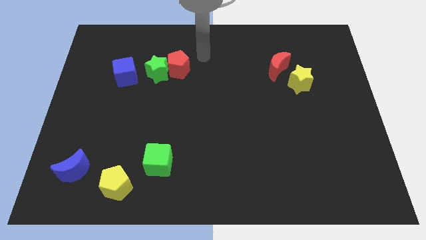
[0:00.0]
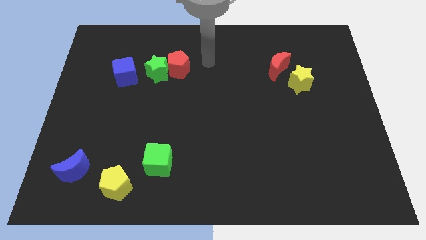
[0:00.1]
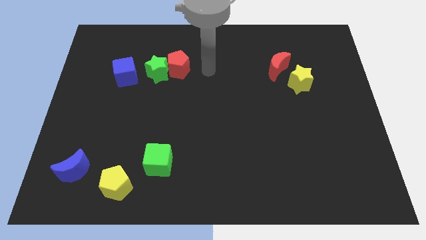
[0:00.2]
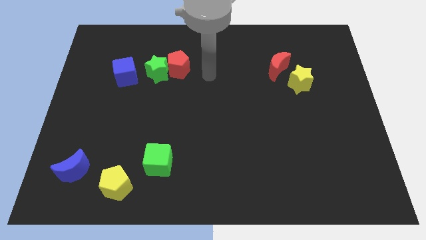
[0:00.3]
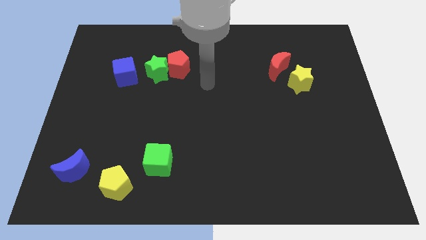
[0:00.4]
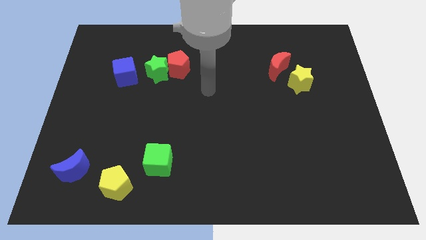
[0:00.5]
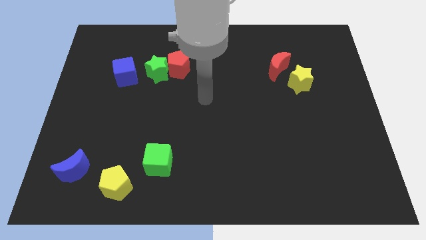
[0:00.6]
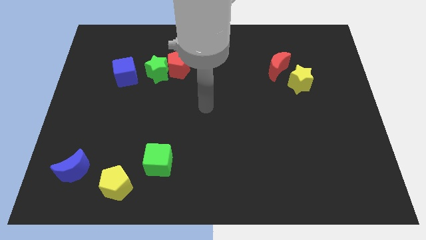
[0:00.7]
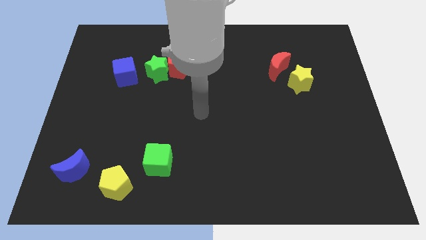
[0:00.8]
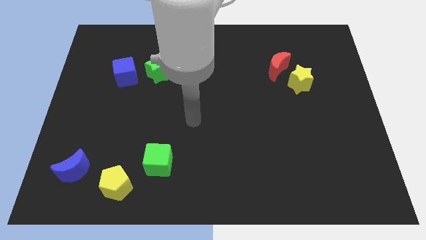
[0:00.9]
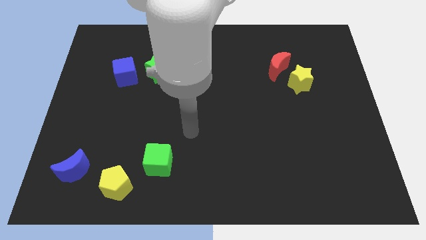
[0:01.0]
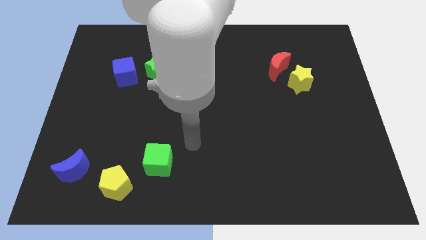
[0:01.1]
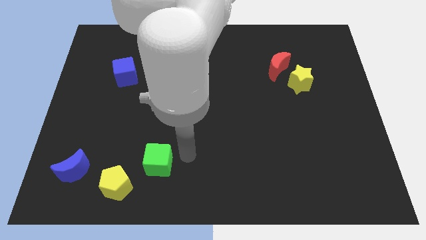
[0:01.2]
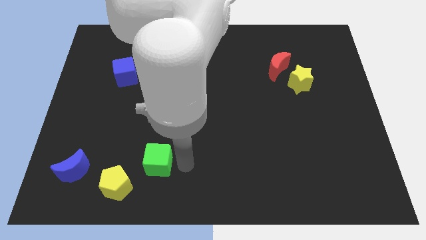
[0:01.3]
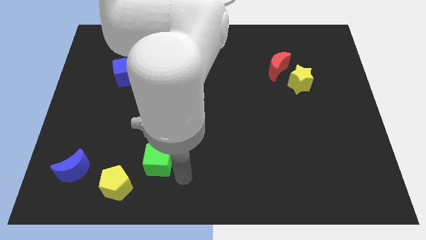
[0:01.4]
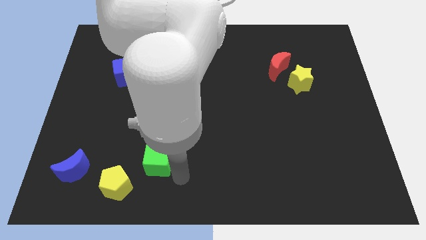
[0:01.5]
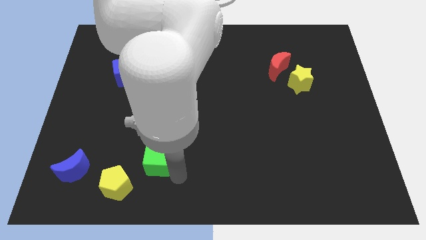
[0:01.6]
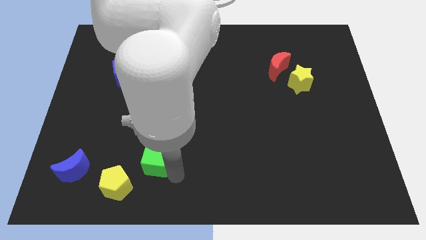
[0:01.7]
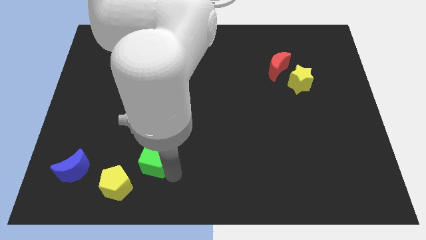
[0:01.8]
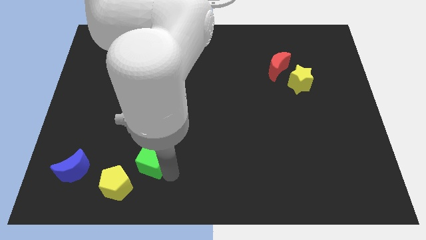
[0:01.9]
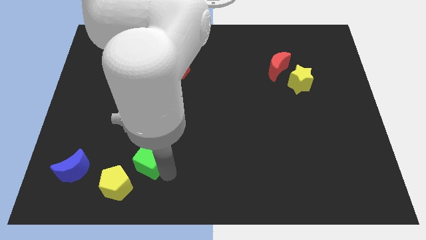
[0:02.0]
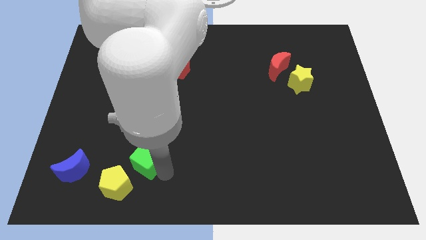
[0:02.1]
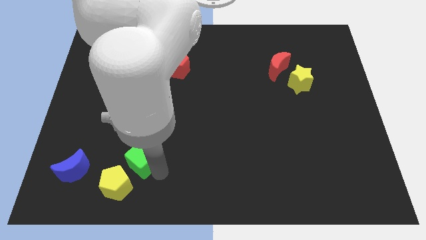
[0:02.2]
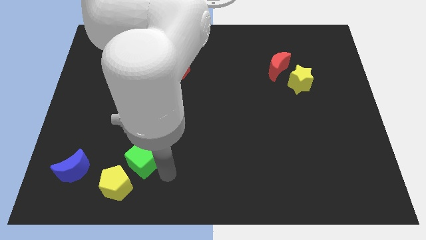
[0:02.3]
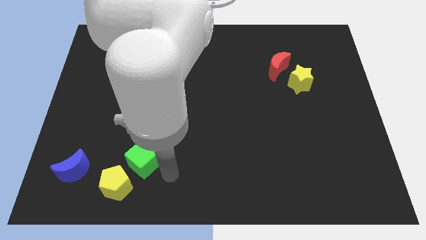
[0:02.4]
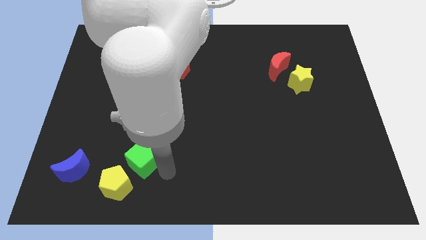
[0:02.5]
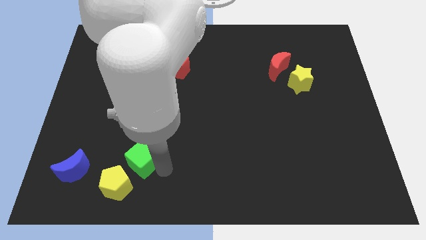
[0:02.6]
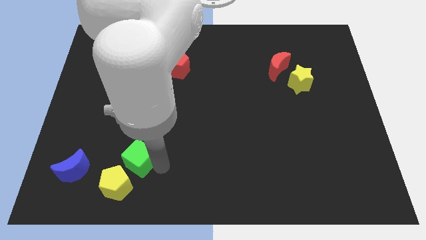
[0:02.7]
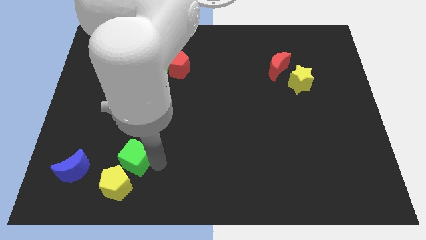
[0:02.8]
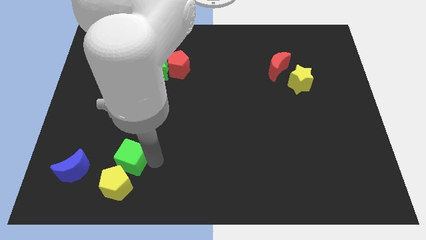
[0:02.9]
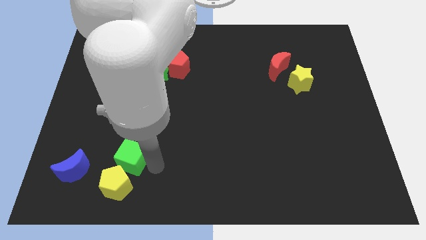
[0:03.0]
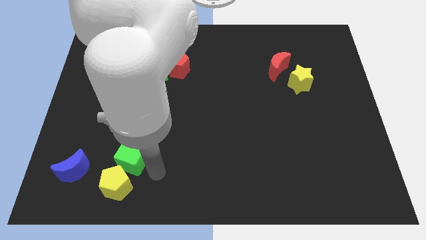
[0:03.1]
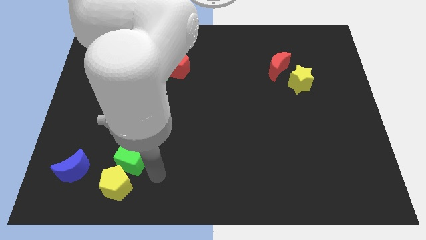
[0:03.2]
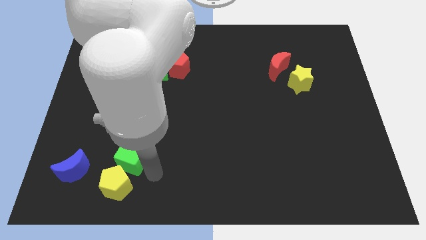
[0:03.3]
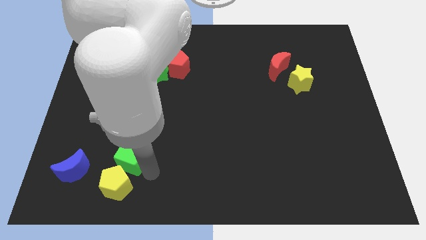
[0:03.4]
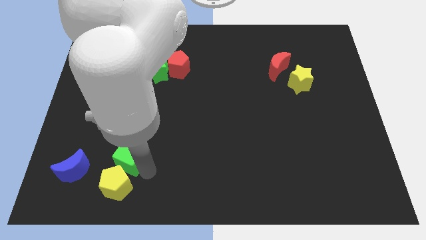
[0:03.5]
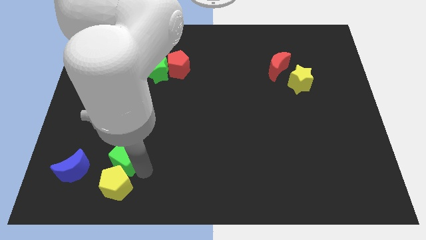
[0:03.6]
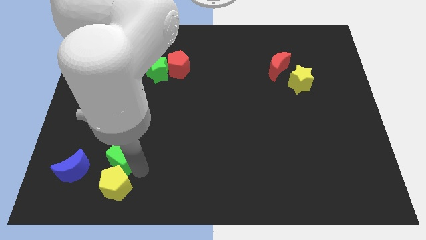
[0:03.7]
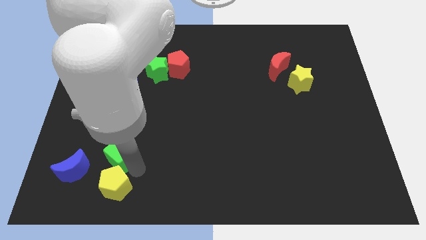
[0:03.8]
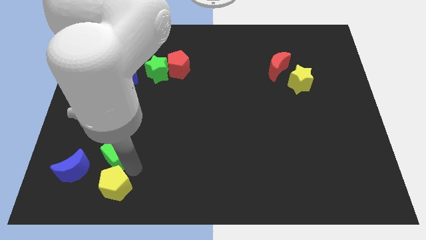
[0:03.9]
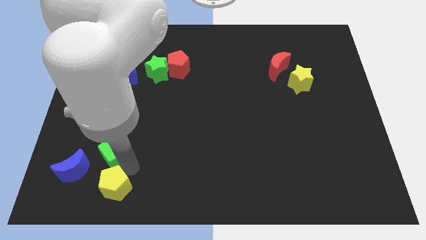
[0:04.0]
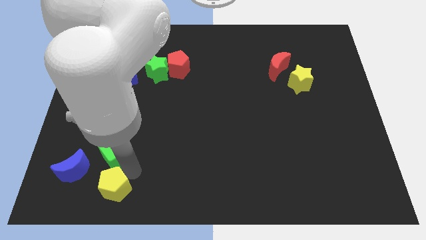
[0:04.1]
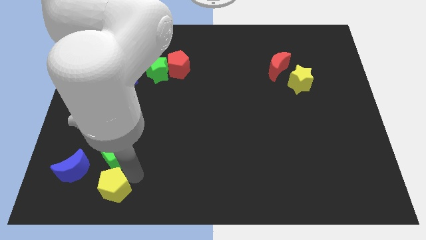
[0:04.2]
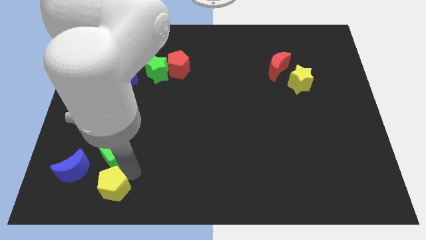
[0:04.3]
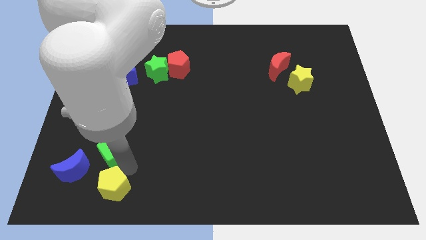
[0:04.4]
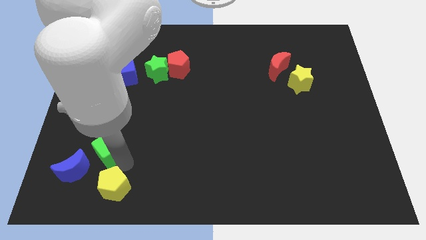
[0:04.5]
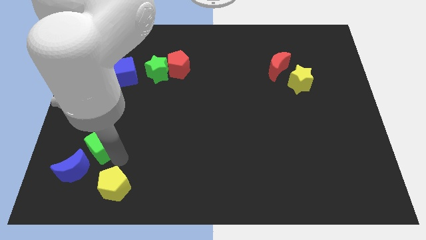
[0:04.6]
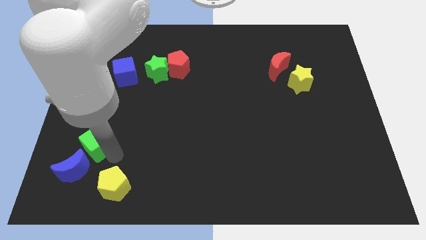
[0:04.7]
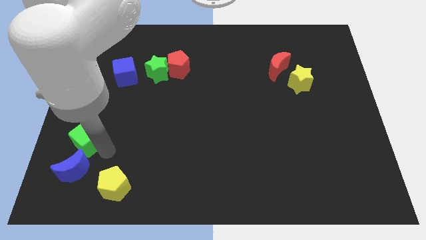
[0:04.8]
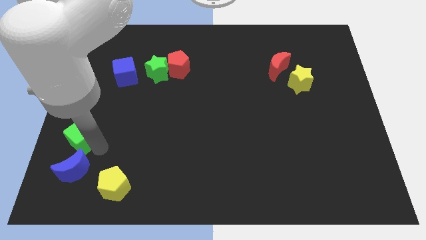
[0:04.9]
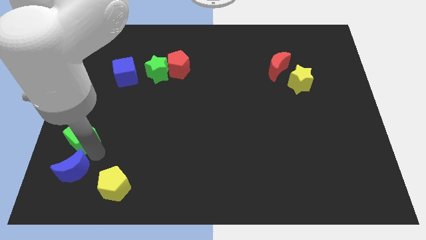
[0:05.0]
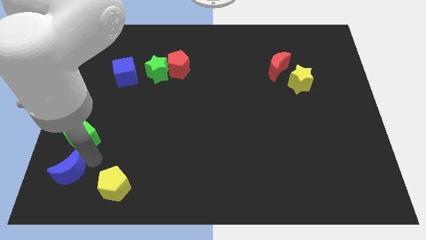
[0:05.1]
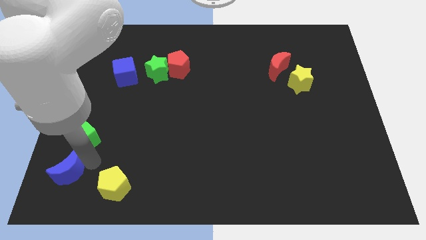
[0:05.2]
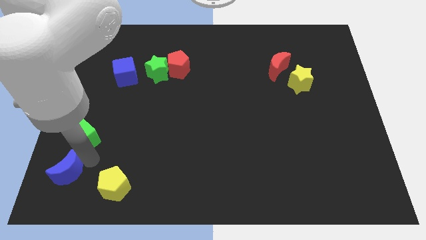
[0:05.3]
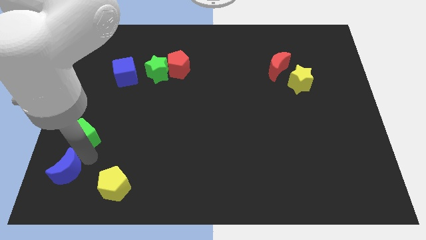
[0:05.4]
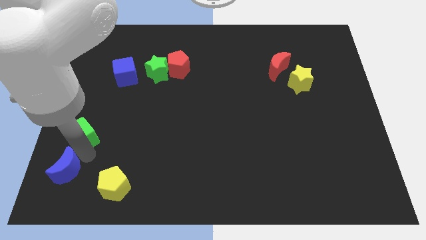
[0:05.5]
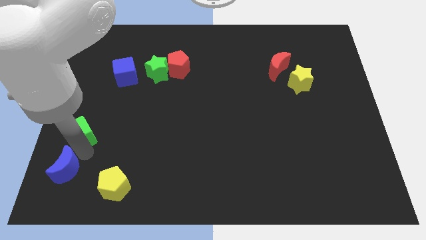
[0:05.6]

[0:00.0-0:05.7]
put the green cube to the center left
